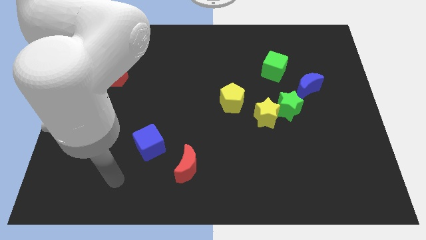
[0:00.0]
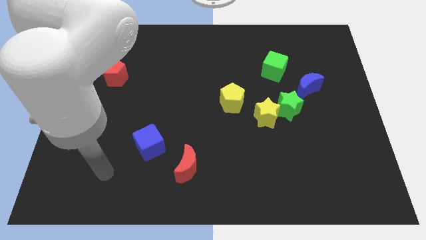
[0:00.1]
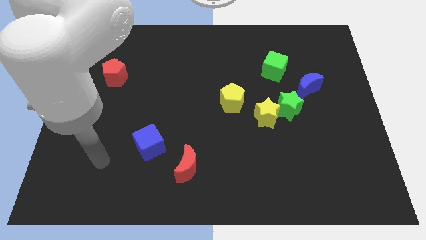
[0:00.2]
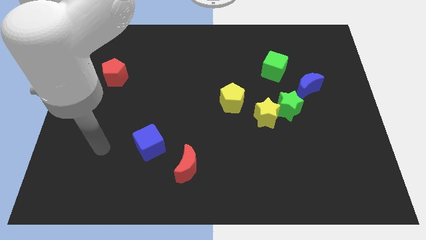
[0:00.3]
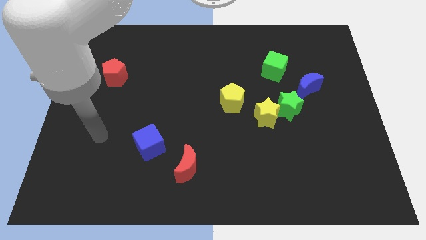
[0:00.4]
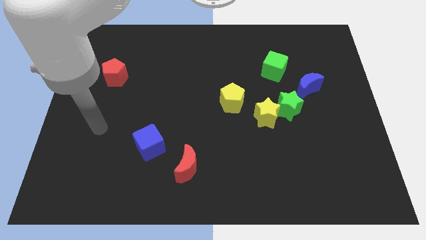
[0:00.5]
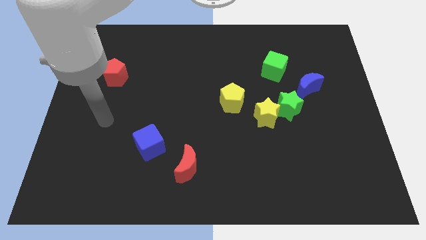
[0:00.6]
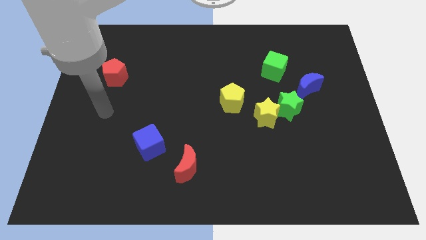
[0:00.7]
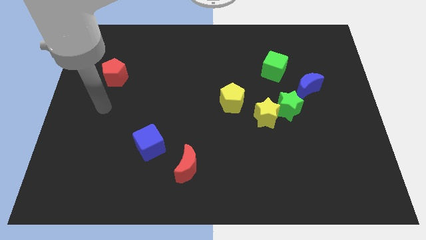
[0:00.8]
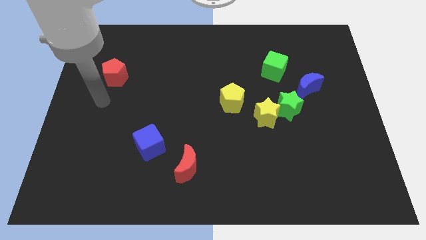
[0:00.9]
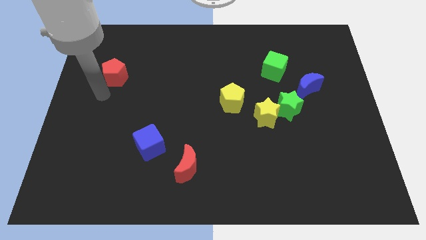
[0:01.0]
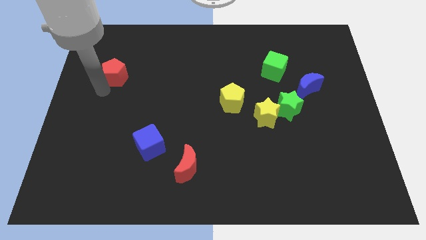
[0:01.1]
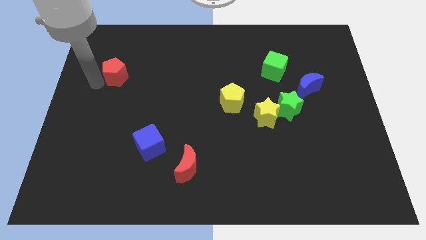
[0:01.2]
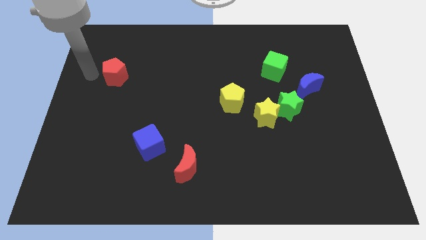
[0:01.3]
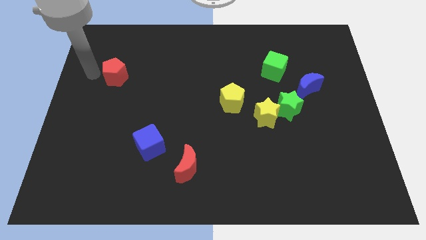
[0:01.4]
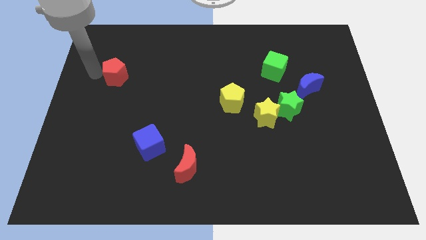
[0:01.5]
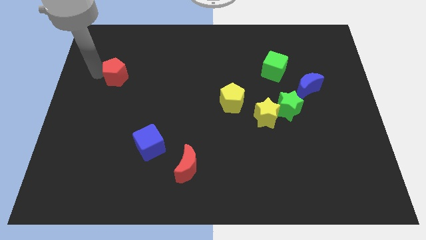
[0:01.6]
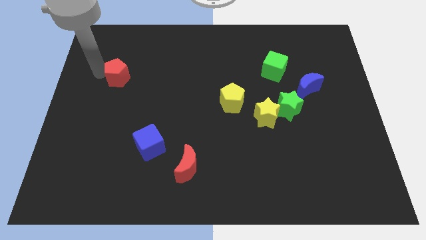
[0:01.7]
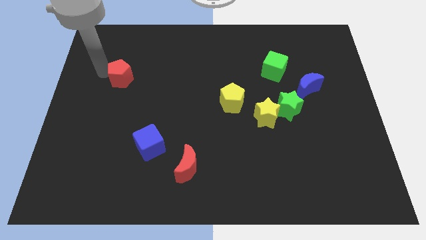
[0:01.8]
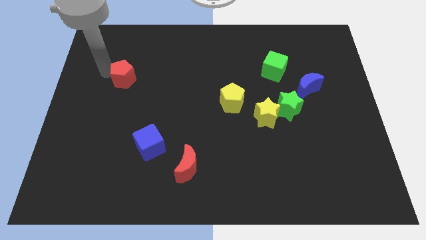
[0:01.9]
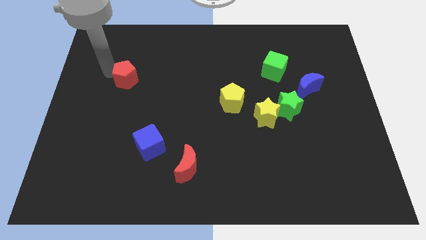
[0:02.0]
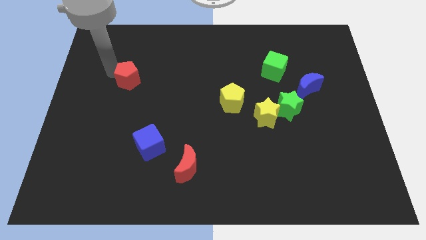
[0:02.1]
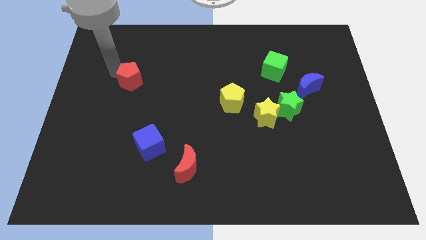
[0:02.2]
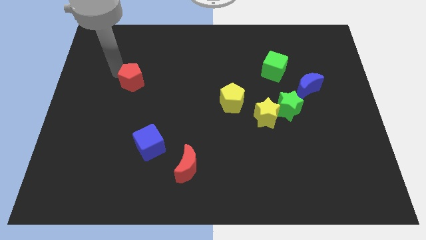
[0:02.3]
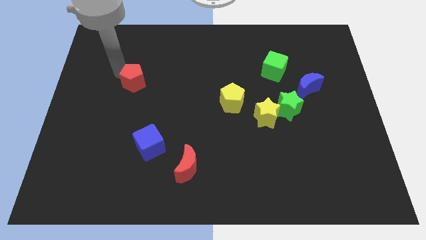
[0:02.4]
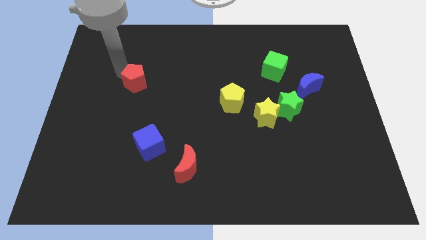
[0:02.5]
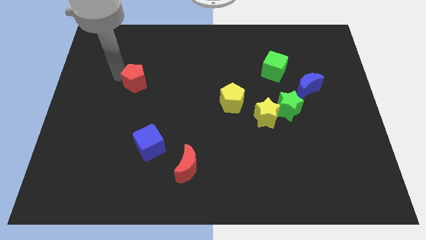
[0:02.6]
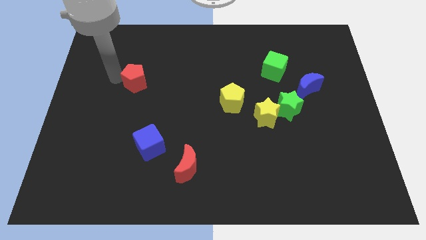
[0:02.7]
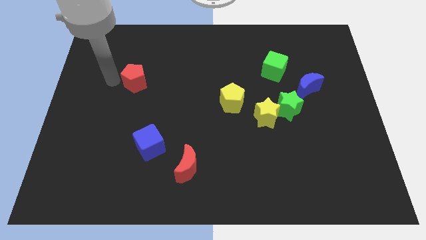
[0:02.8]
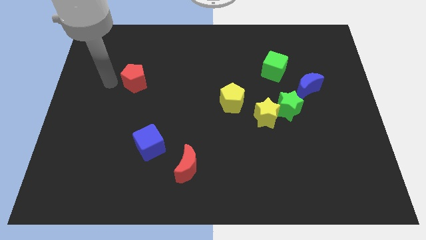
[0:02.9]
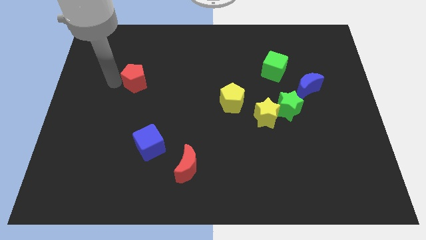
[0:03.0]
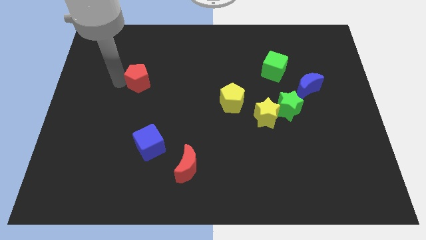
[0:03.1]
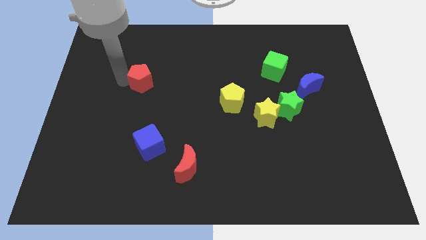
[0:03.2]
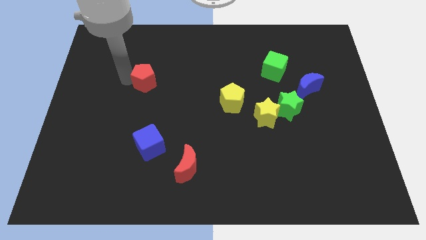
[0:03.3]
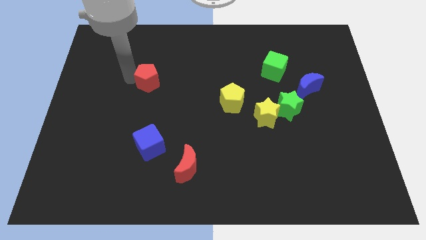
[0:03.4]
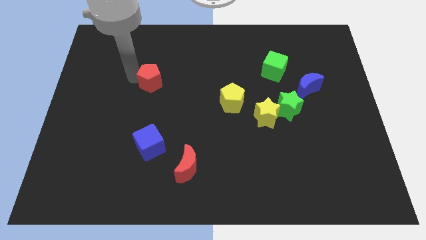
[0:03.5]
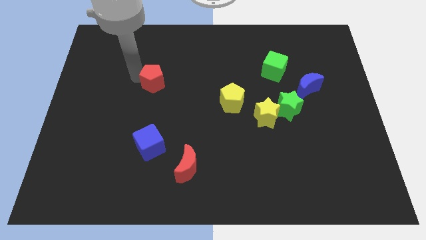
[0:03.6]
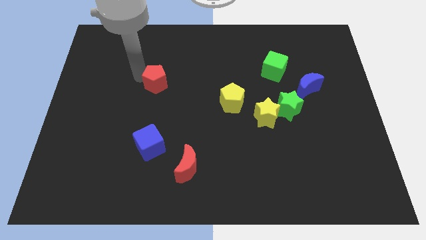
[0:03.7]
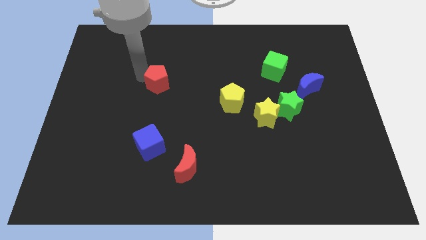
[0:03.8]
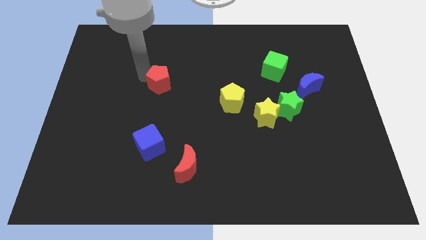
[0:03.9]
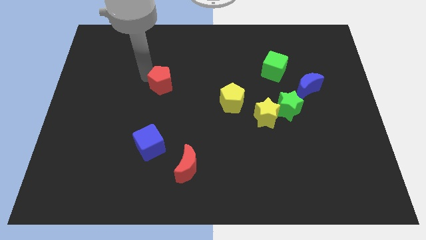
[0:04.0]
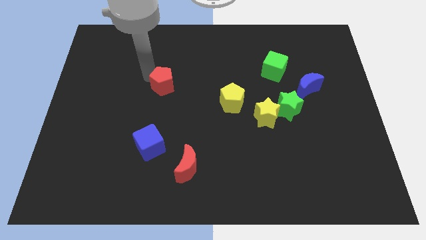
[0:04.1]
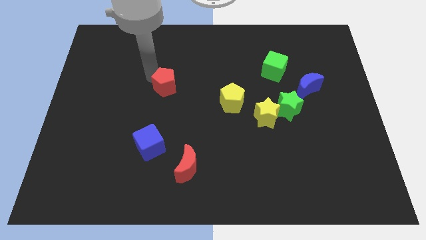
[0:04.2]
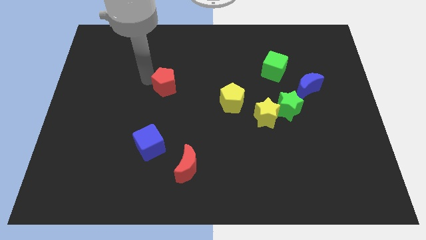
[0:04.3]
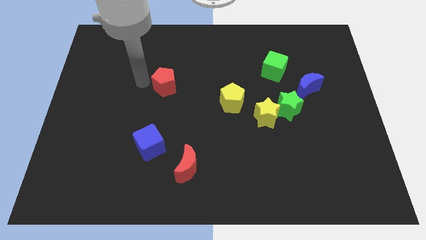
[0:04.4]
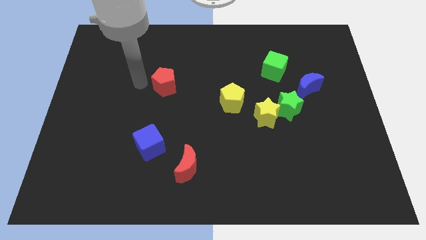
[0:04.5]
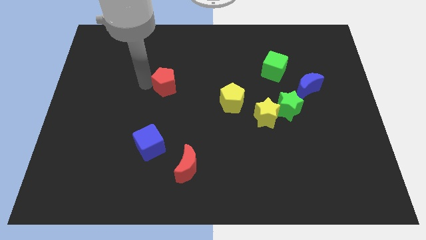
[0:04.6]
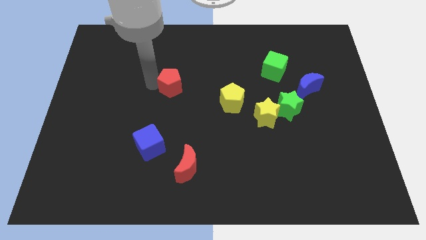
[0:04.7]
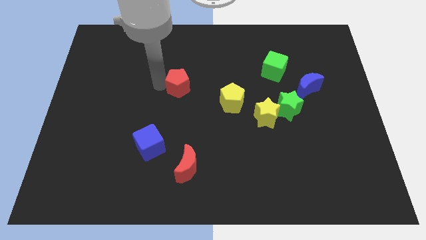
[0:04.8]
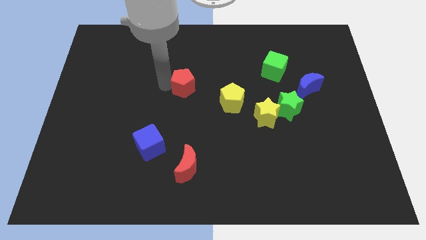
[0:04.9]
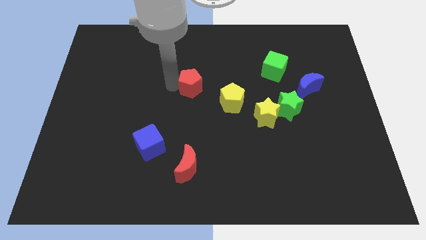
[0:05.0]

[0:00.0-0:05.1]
put the red pentagon diagonally up and to the left of the yellow pentagon

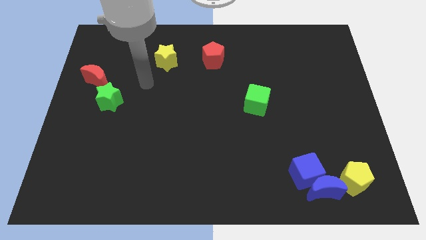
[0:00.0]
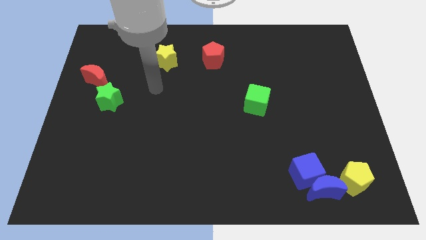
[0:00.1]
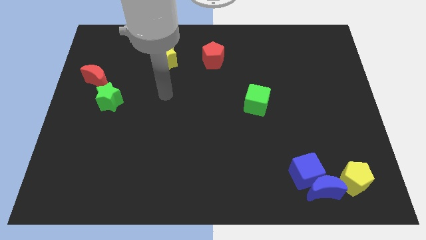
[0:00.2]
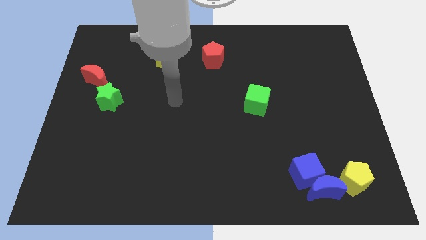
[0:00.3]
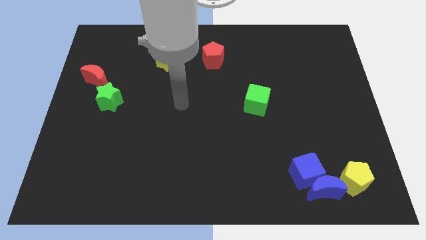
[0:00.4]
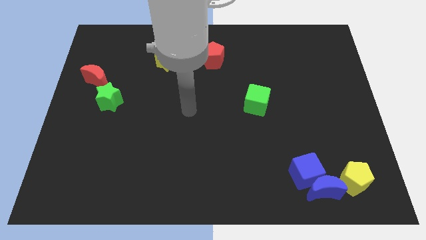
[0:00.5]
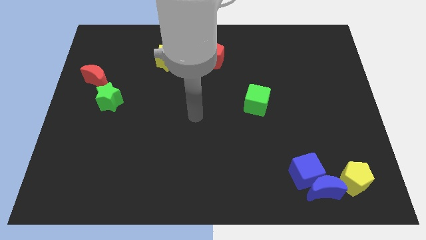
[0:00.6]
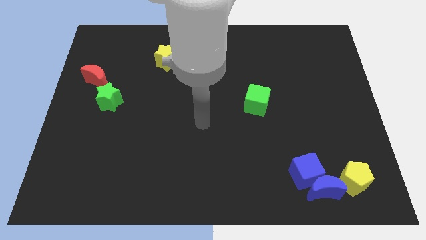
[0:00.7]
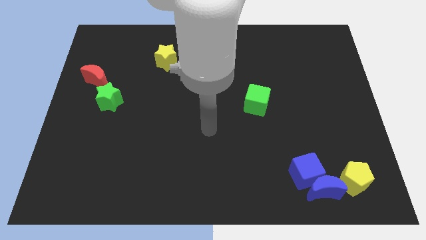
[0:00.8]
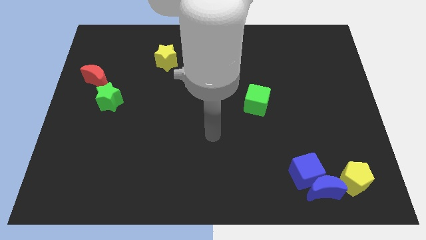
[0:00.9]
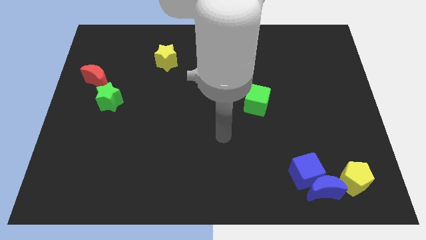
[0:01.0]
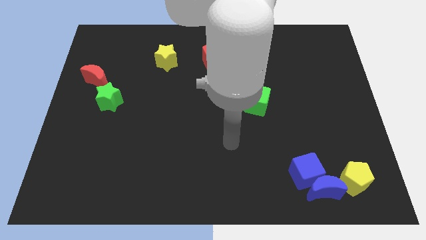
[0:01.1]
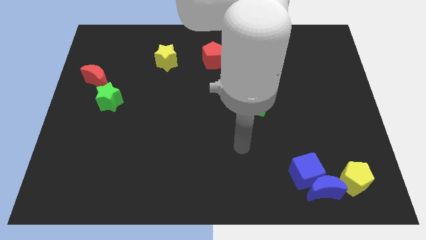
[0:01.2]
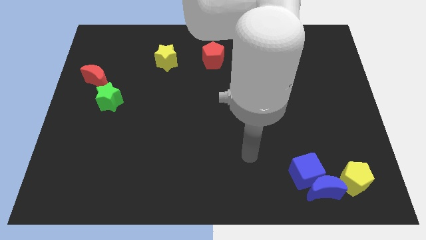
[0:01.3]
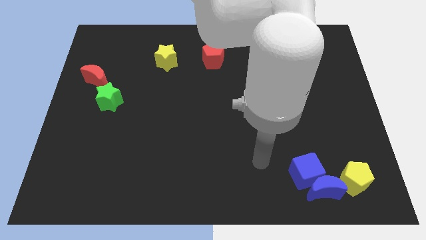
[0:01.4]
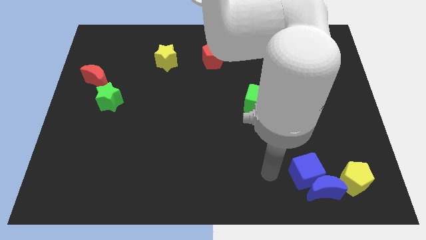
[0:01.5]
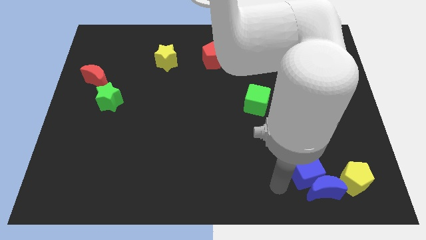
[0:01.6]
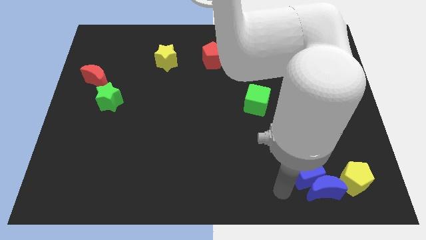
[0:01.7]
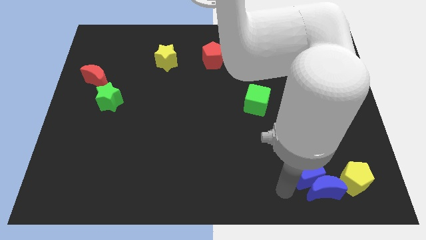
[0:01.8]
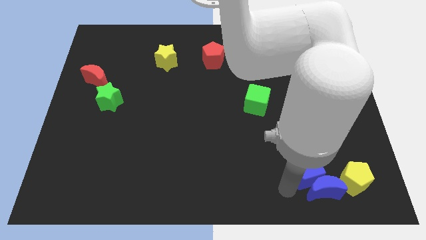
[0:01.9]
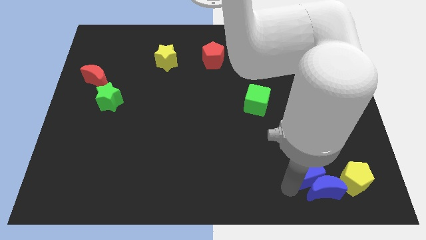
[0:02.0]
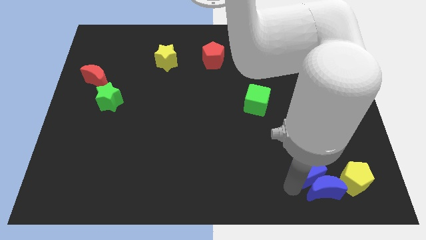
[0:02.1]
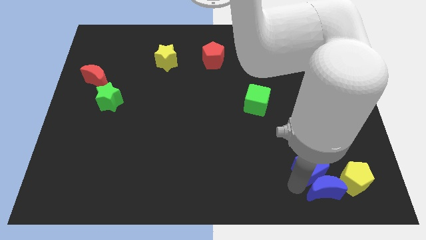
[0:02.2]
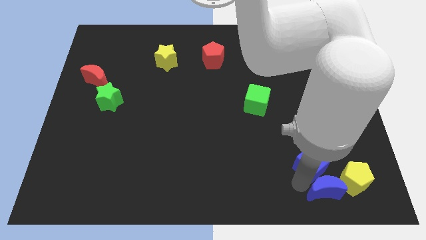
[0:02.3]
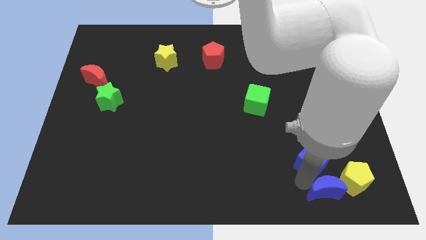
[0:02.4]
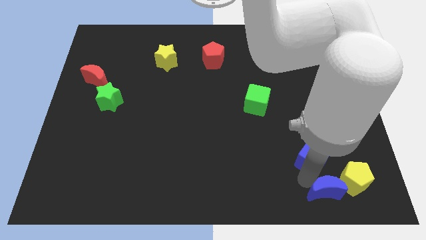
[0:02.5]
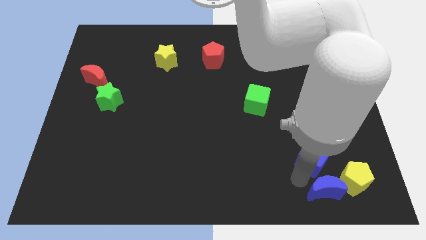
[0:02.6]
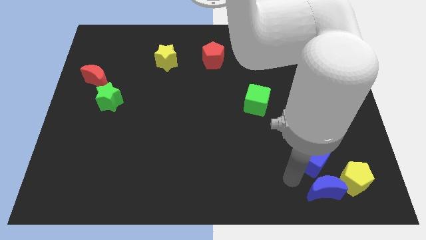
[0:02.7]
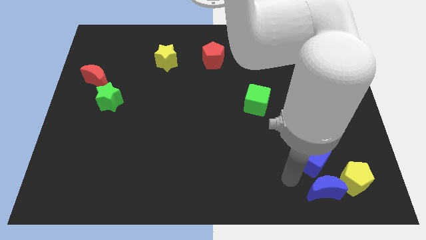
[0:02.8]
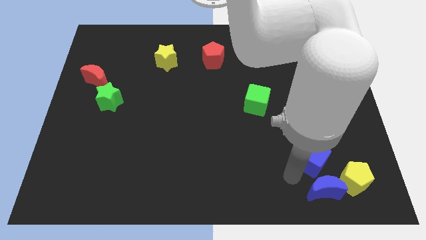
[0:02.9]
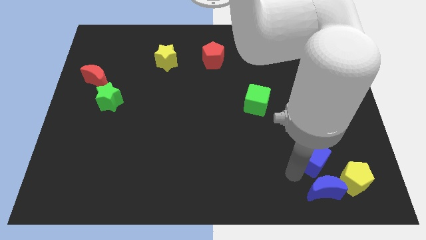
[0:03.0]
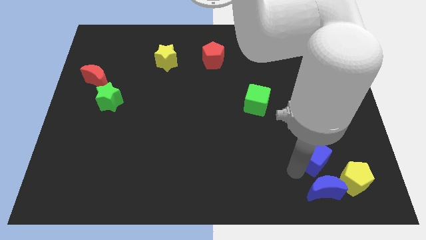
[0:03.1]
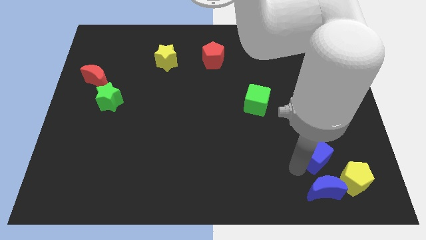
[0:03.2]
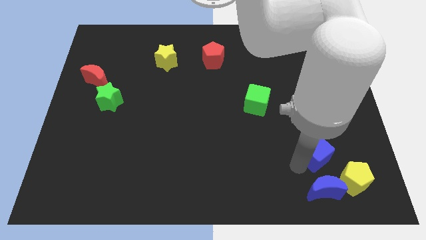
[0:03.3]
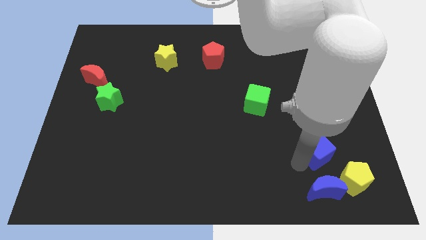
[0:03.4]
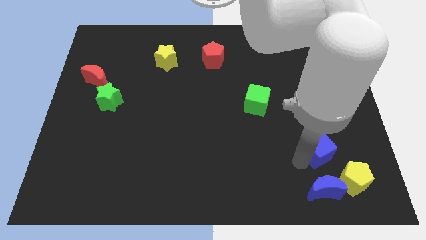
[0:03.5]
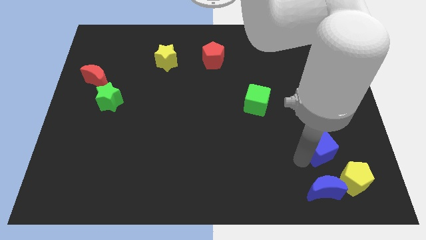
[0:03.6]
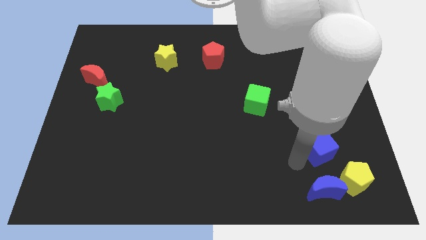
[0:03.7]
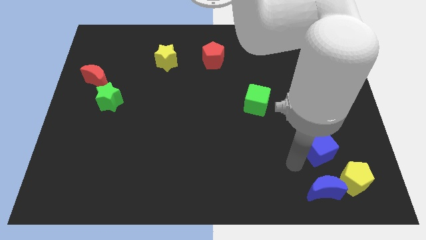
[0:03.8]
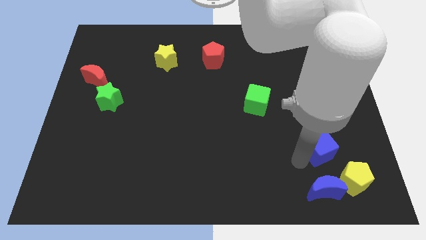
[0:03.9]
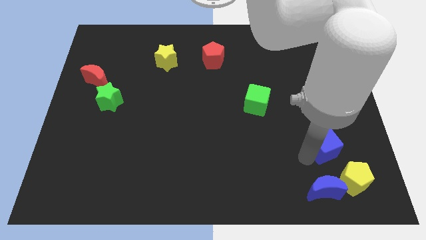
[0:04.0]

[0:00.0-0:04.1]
slide the blue cube to the top side of the yellow pentagon
